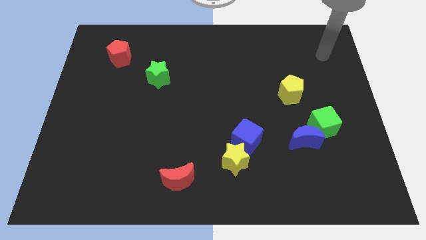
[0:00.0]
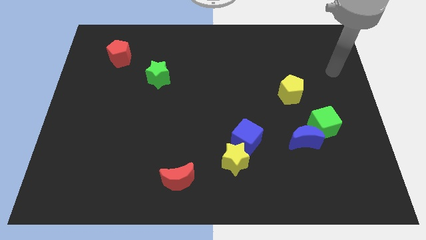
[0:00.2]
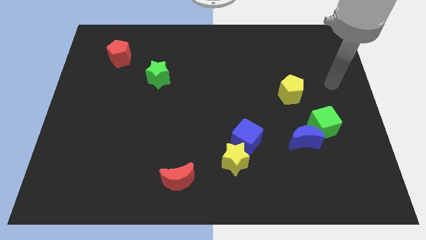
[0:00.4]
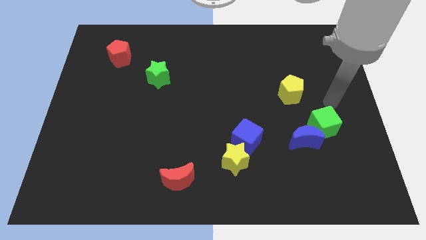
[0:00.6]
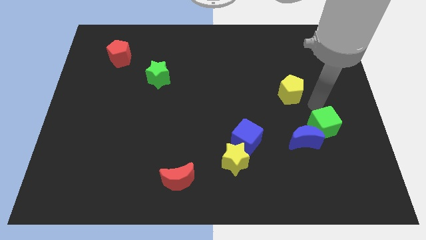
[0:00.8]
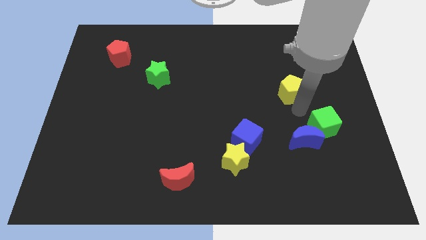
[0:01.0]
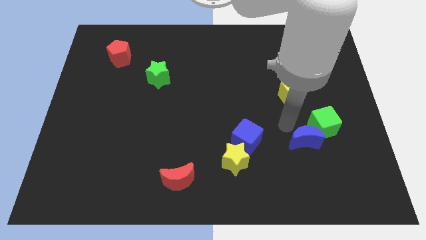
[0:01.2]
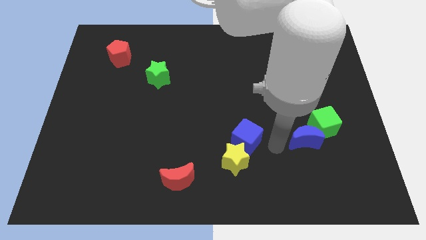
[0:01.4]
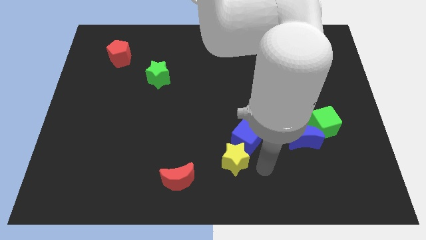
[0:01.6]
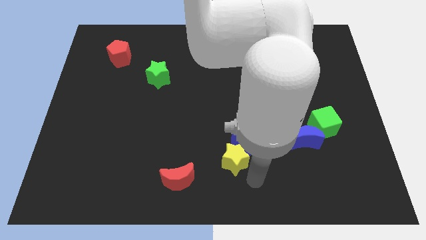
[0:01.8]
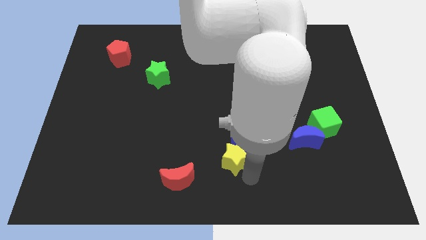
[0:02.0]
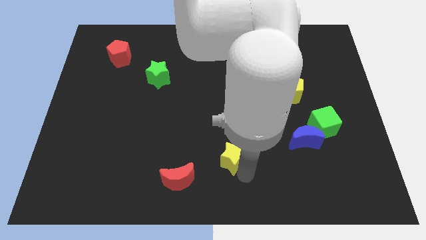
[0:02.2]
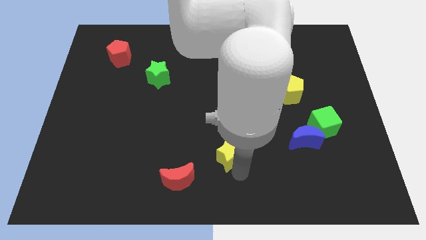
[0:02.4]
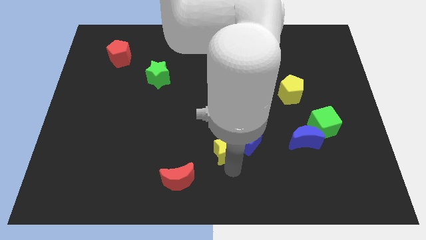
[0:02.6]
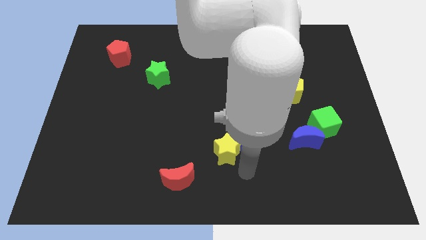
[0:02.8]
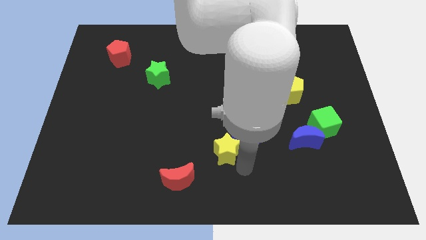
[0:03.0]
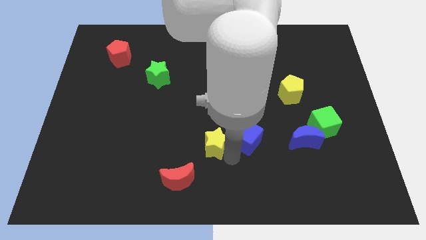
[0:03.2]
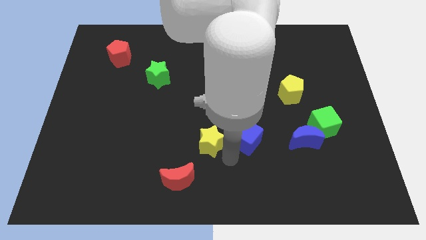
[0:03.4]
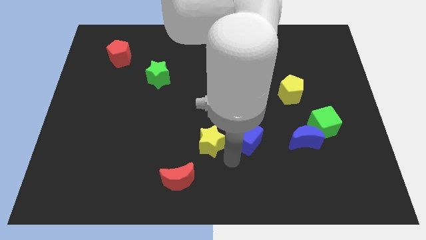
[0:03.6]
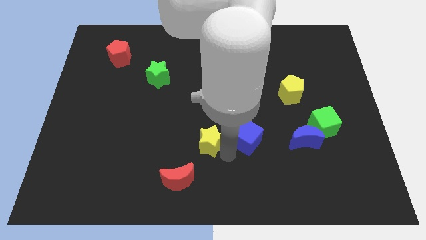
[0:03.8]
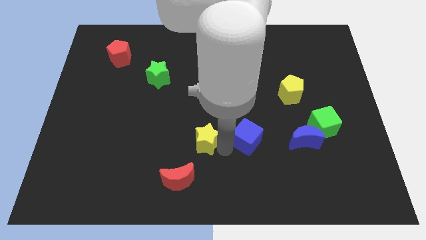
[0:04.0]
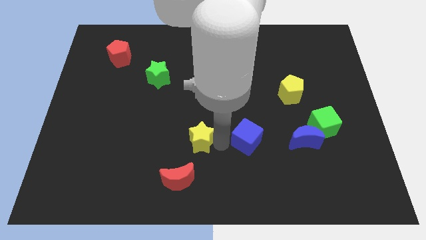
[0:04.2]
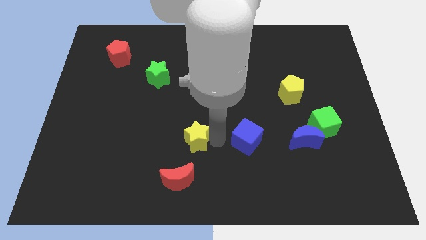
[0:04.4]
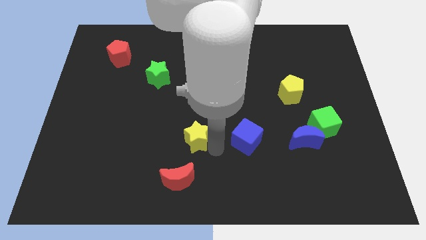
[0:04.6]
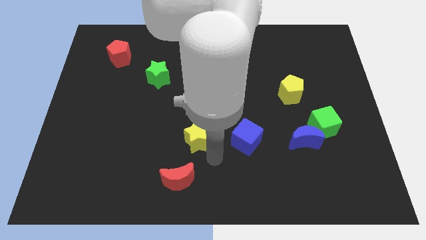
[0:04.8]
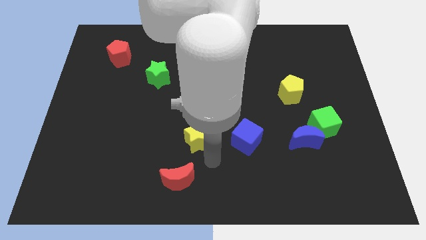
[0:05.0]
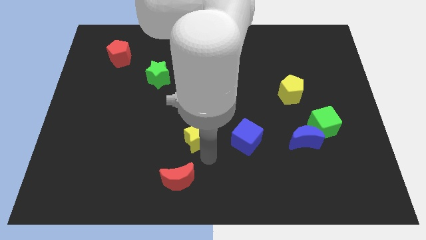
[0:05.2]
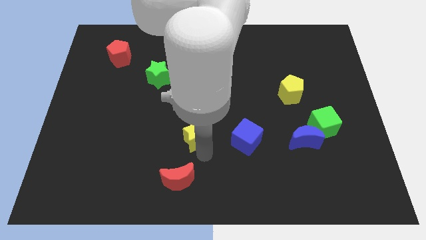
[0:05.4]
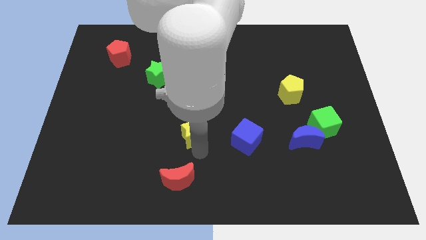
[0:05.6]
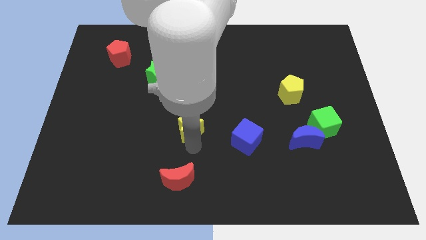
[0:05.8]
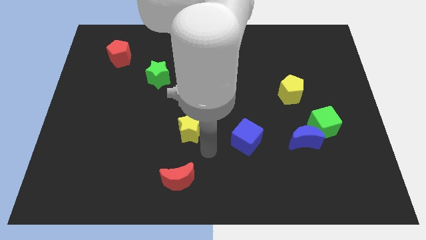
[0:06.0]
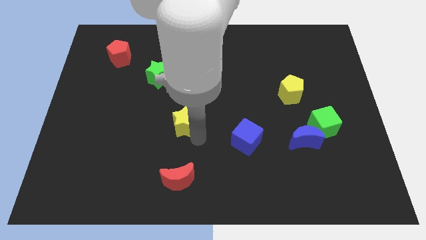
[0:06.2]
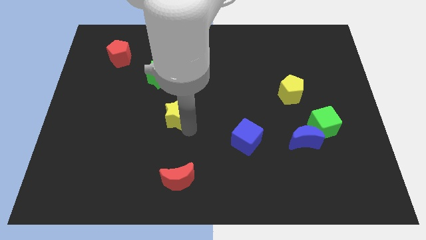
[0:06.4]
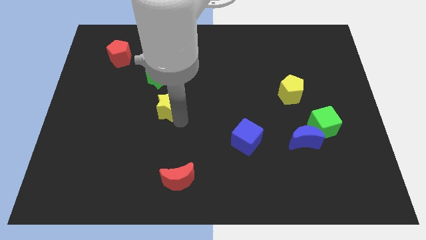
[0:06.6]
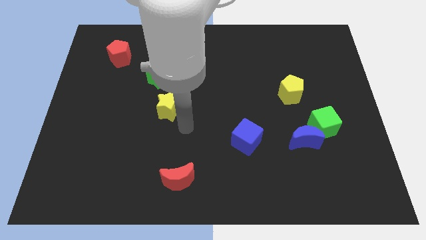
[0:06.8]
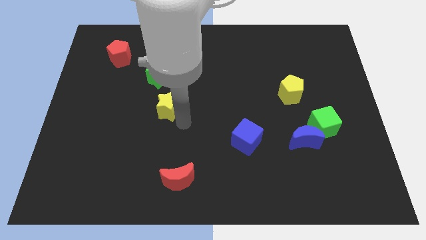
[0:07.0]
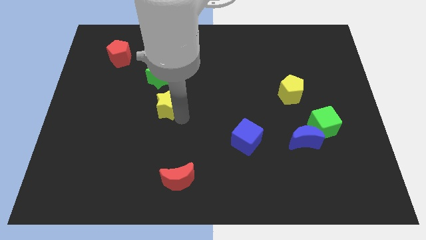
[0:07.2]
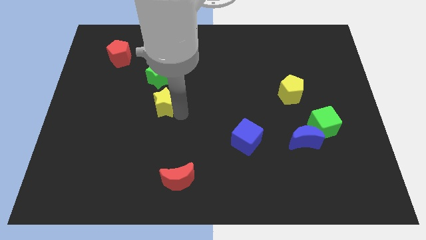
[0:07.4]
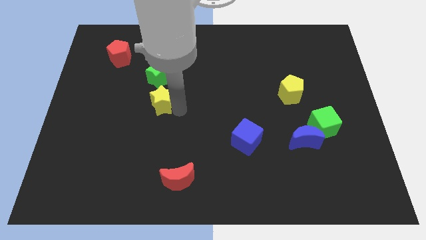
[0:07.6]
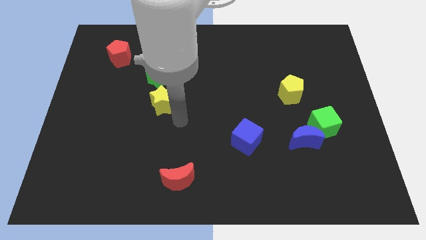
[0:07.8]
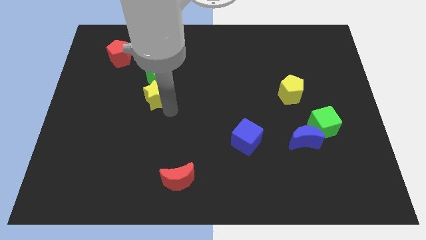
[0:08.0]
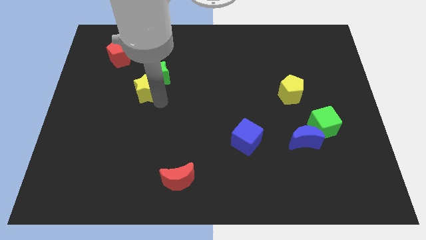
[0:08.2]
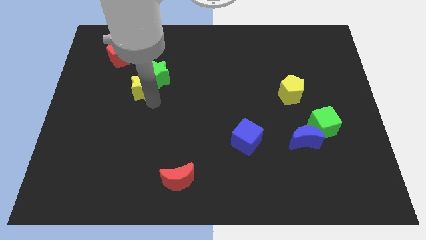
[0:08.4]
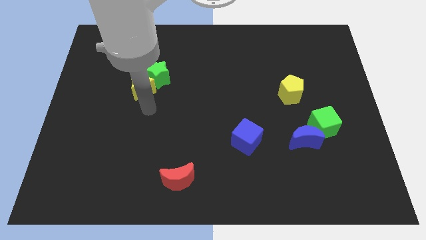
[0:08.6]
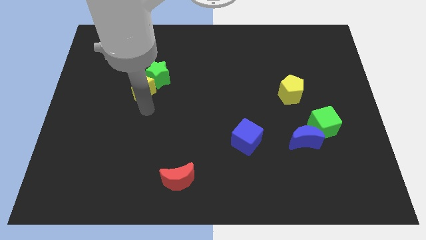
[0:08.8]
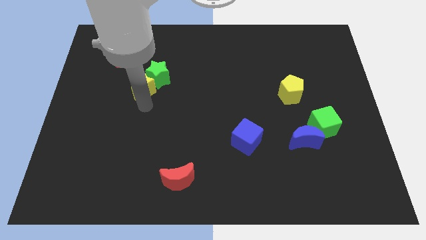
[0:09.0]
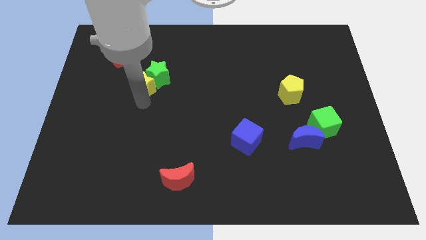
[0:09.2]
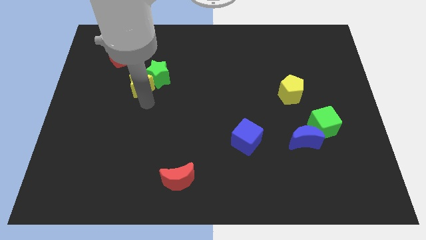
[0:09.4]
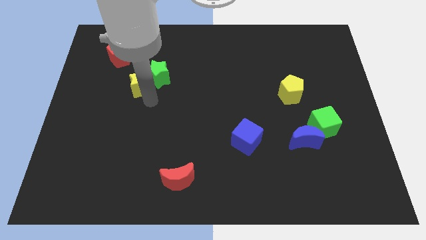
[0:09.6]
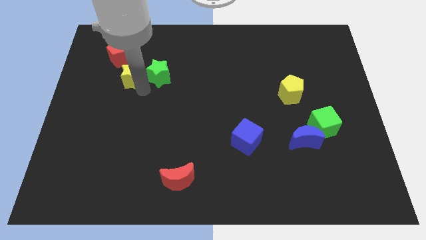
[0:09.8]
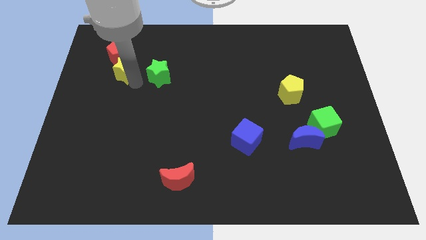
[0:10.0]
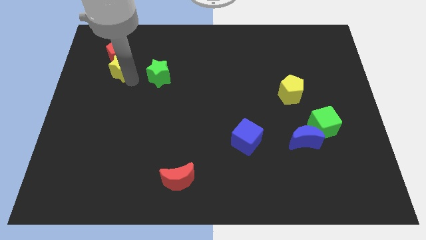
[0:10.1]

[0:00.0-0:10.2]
move the yellow star to the red pentagon

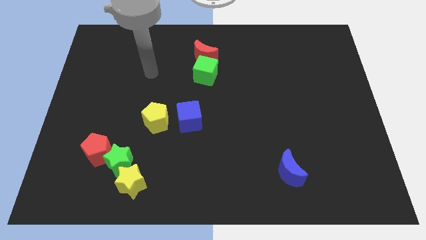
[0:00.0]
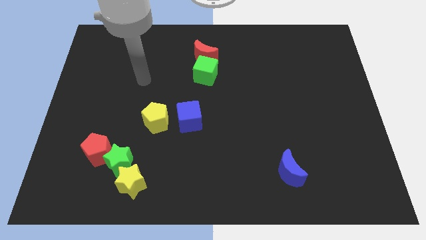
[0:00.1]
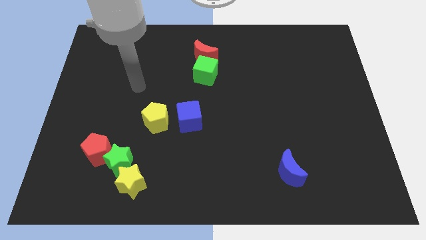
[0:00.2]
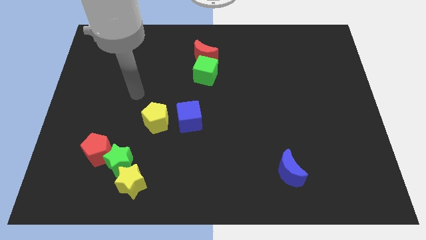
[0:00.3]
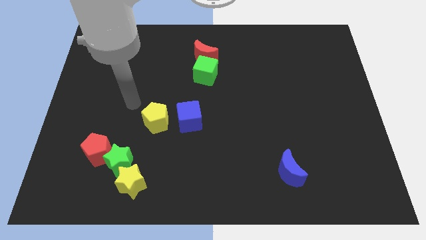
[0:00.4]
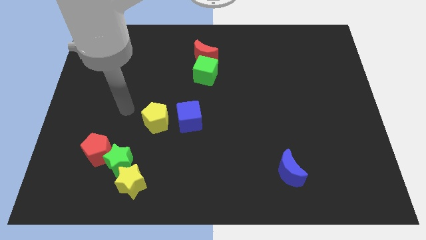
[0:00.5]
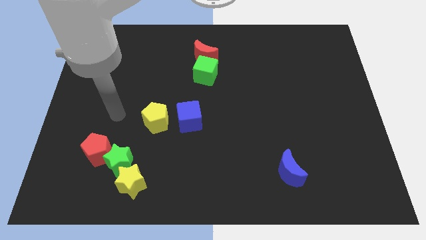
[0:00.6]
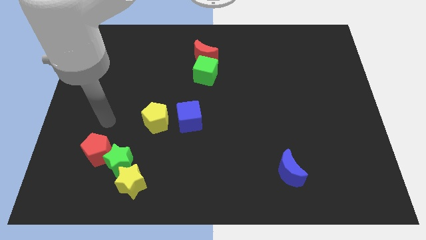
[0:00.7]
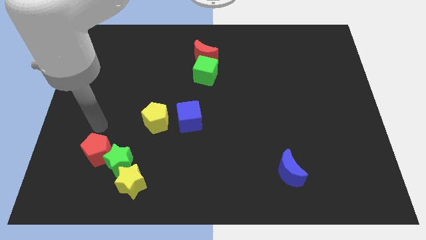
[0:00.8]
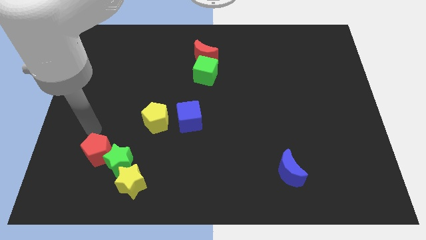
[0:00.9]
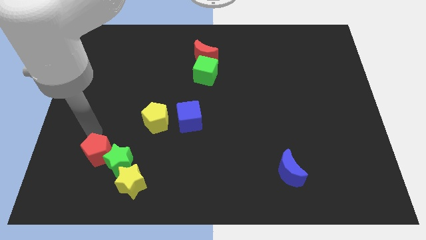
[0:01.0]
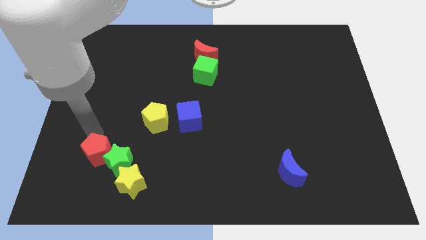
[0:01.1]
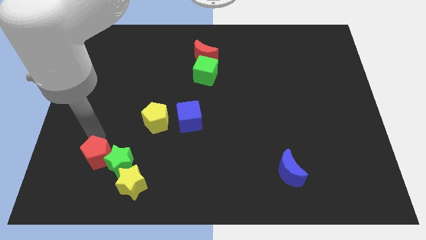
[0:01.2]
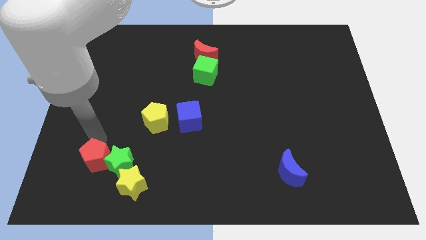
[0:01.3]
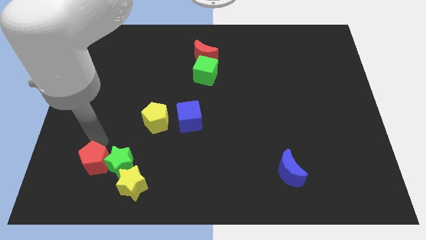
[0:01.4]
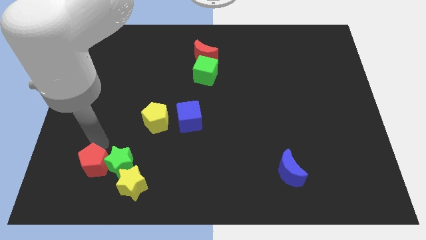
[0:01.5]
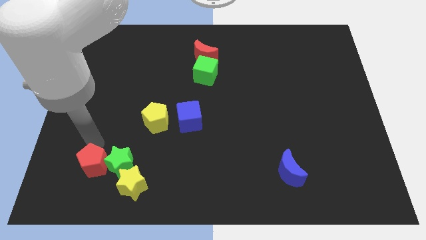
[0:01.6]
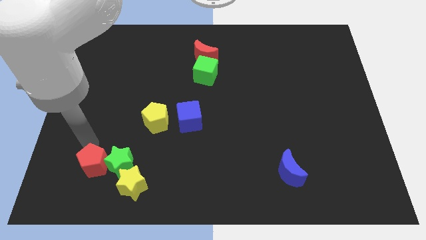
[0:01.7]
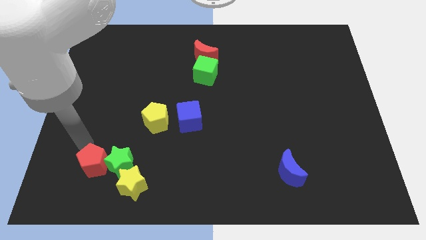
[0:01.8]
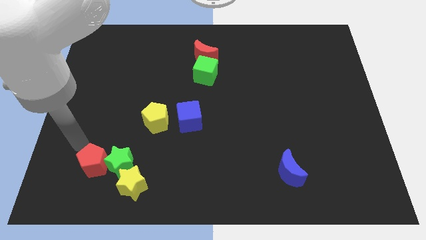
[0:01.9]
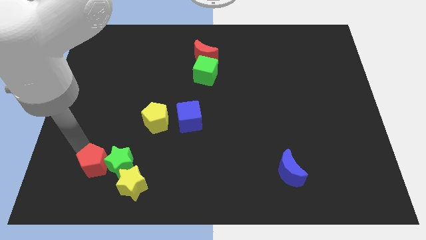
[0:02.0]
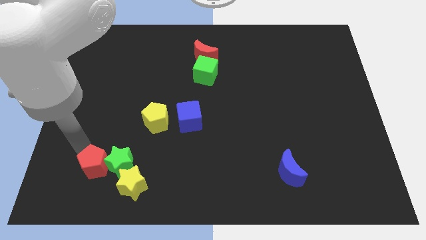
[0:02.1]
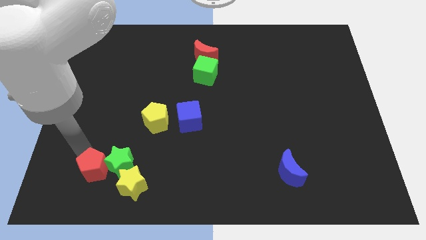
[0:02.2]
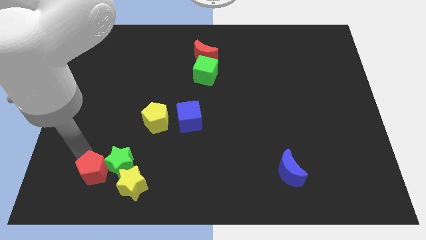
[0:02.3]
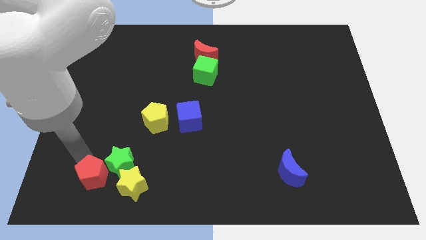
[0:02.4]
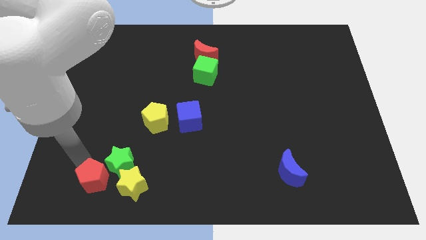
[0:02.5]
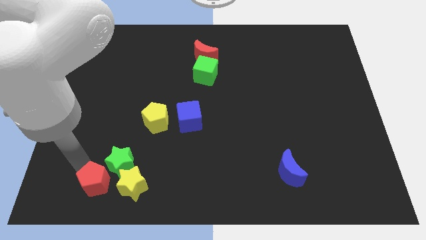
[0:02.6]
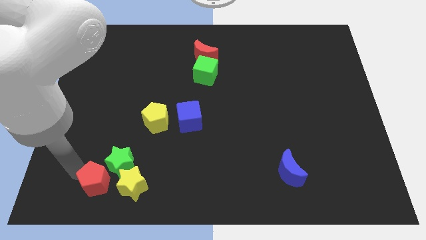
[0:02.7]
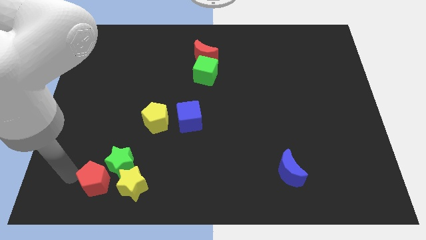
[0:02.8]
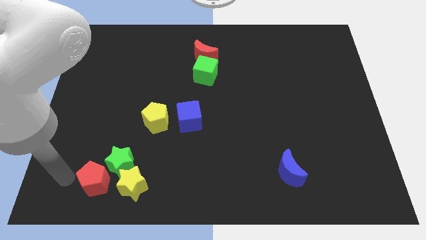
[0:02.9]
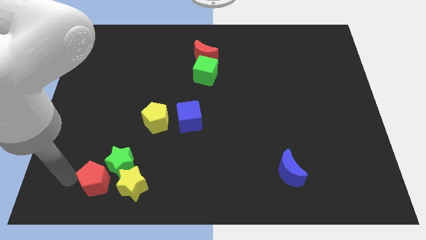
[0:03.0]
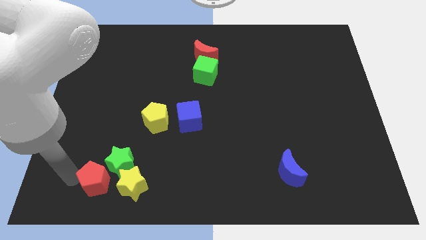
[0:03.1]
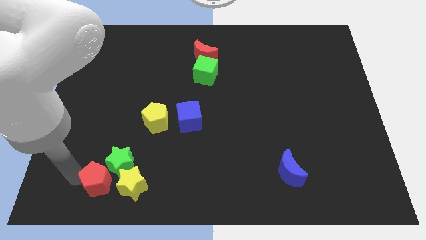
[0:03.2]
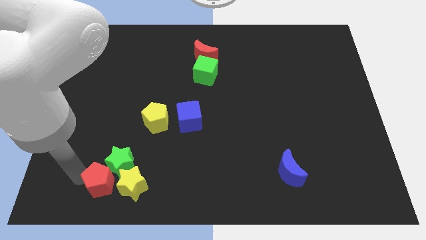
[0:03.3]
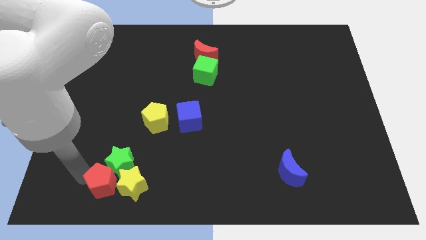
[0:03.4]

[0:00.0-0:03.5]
put the red pentagon close to the yellow star

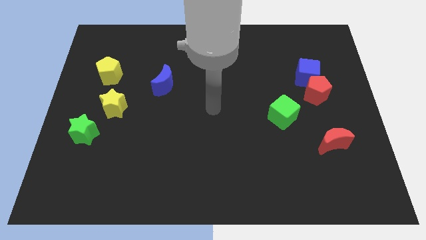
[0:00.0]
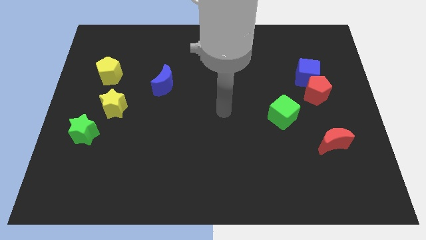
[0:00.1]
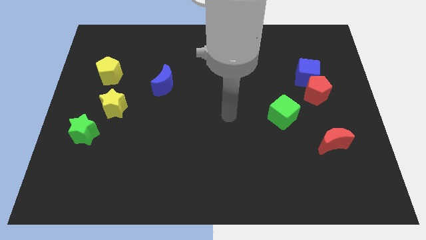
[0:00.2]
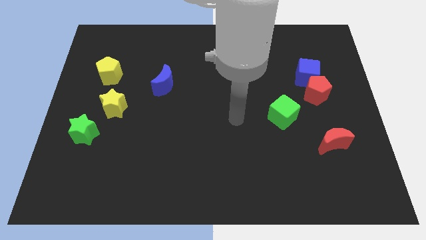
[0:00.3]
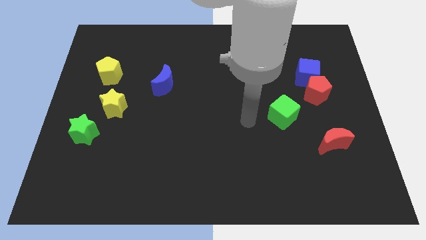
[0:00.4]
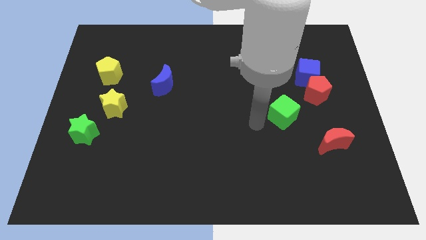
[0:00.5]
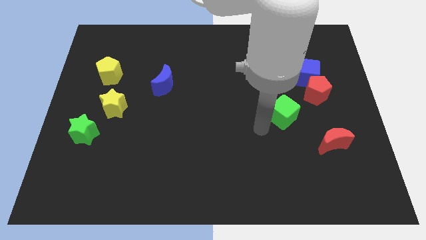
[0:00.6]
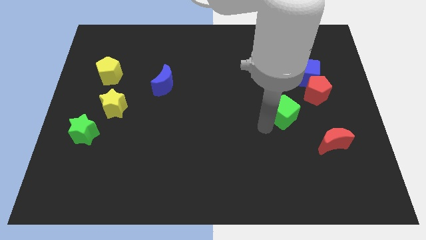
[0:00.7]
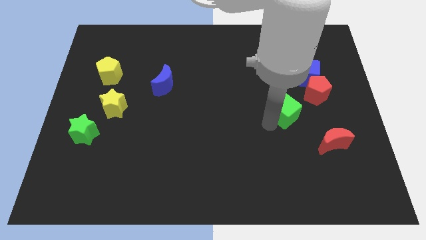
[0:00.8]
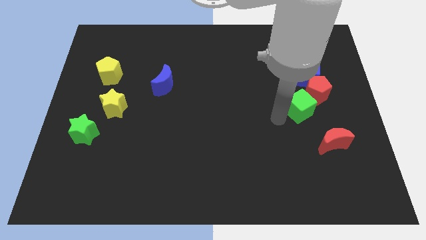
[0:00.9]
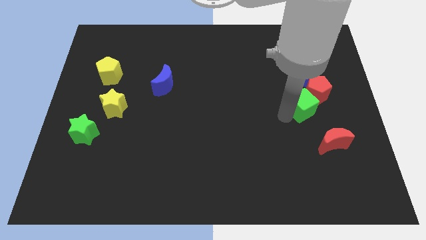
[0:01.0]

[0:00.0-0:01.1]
move the green cube to the red pentagon
